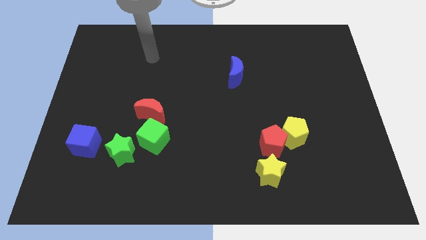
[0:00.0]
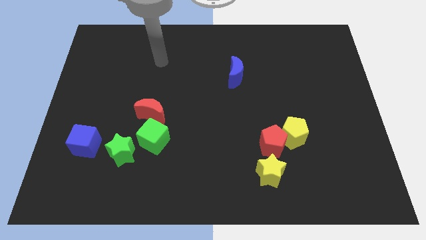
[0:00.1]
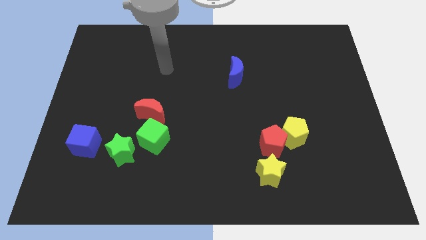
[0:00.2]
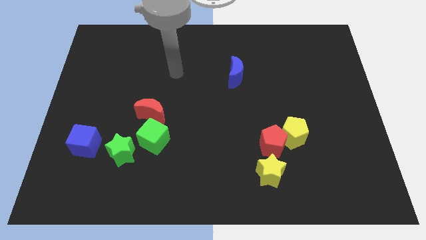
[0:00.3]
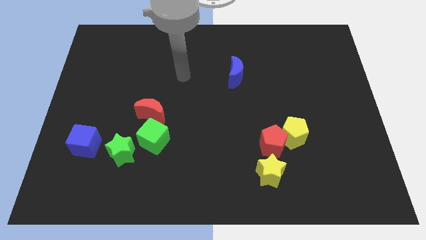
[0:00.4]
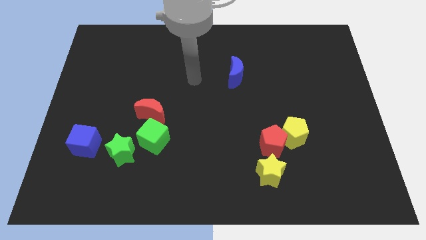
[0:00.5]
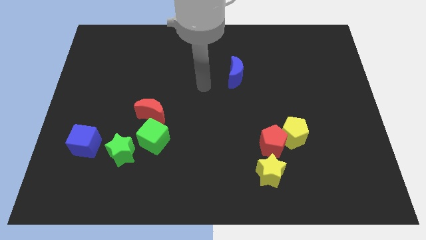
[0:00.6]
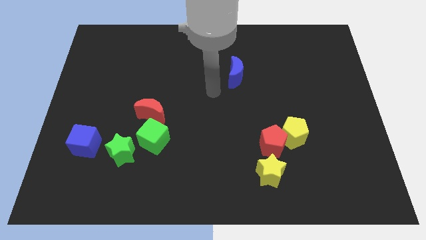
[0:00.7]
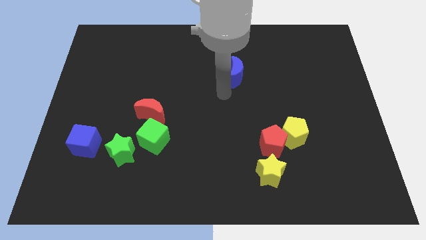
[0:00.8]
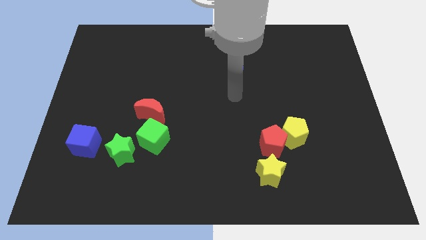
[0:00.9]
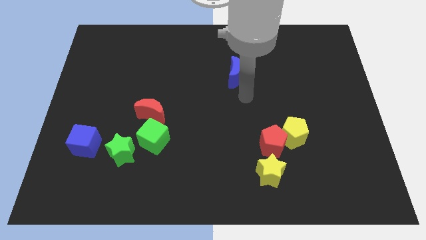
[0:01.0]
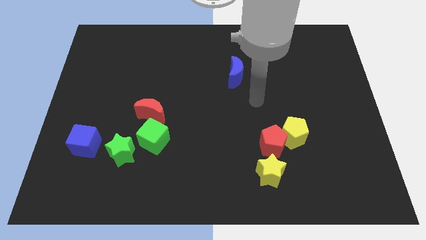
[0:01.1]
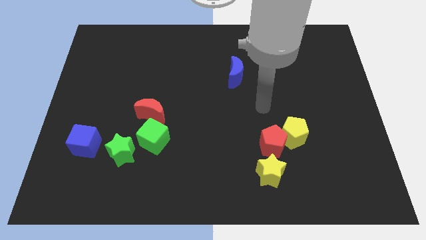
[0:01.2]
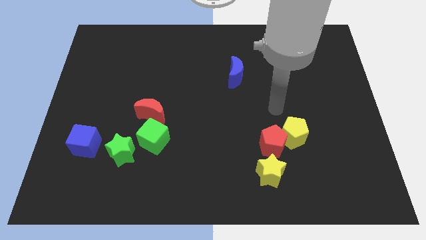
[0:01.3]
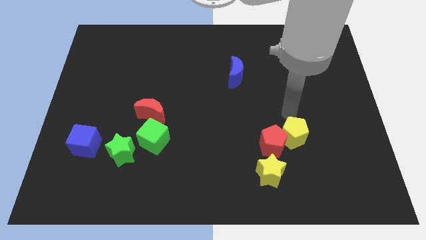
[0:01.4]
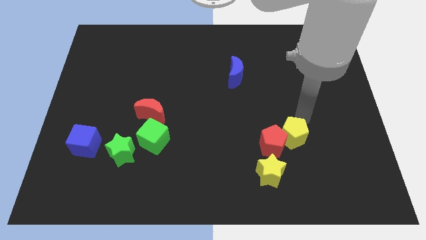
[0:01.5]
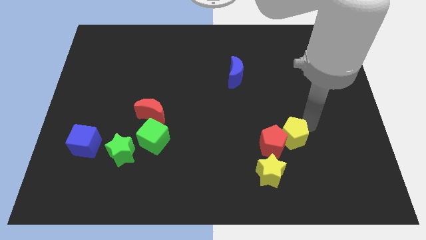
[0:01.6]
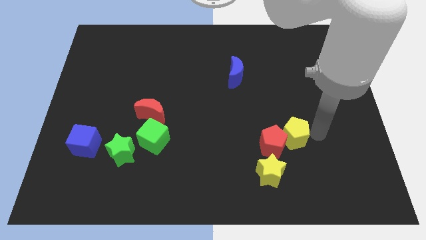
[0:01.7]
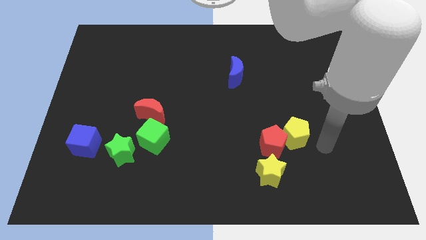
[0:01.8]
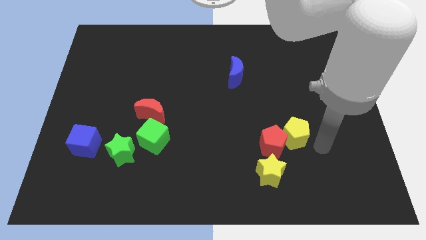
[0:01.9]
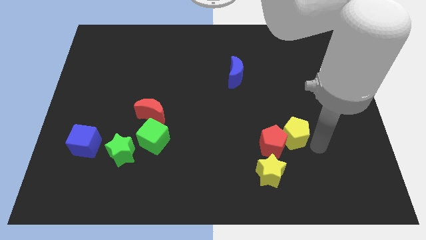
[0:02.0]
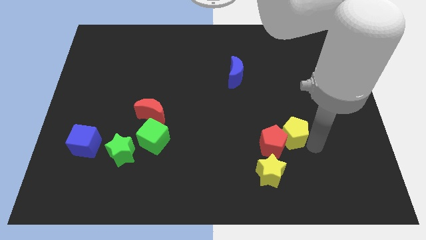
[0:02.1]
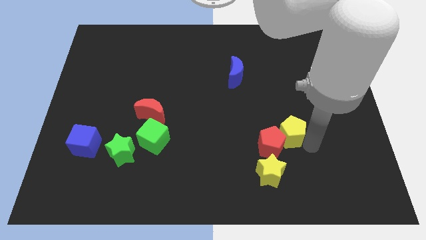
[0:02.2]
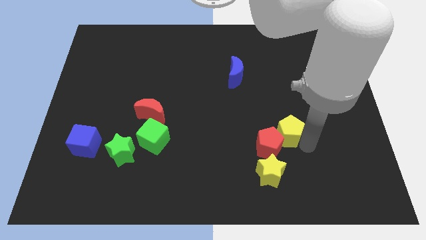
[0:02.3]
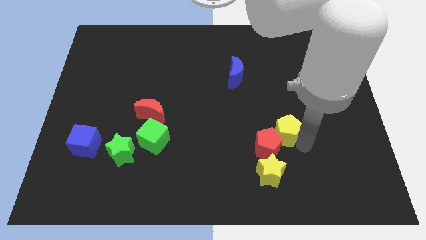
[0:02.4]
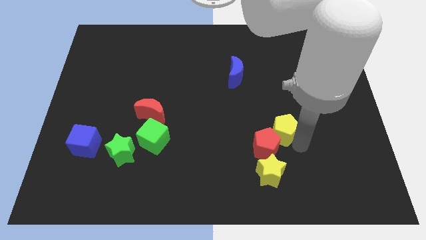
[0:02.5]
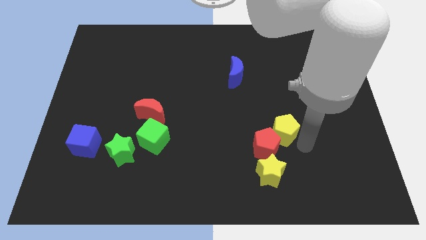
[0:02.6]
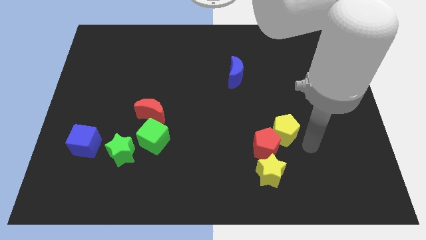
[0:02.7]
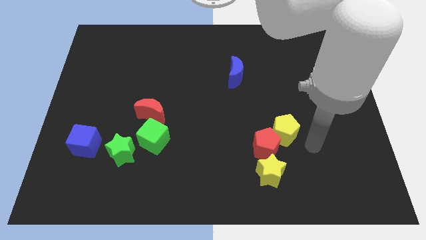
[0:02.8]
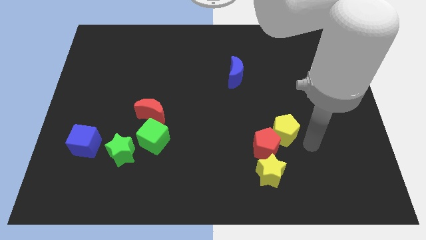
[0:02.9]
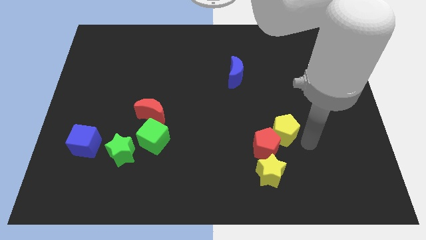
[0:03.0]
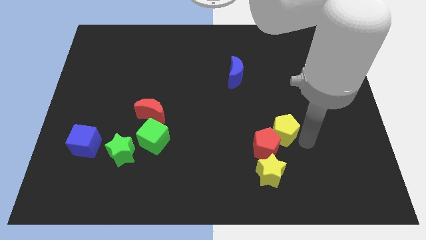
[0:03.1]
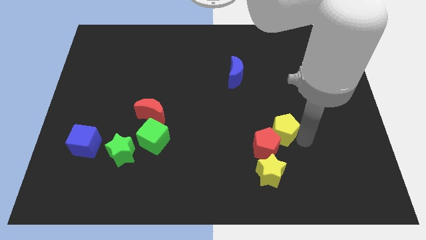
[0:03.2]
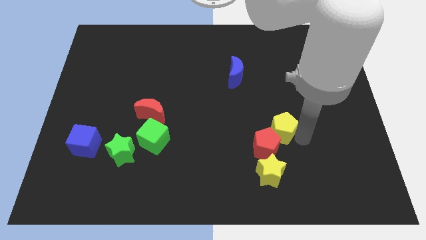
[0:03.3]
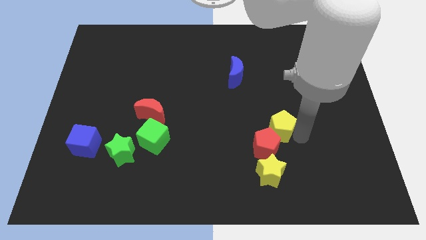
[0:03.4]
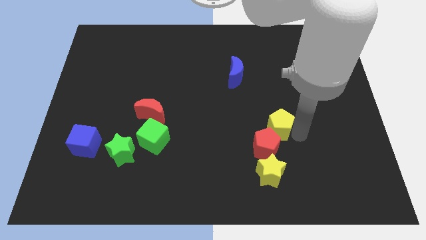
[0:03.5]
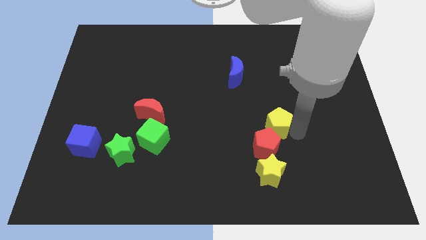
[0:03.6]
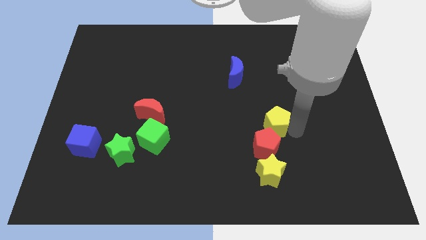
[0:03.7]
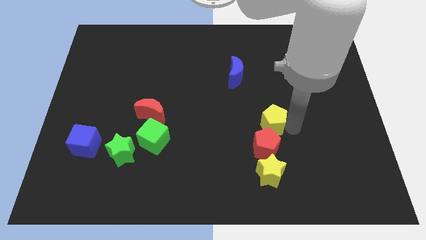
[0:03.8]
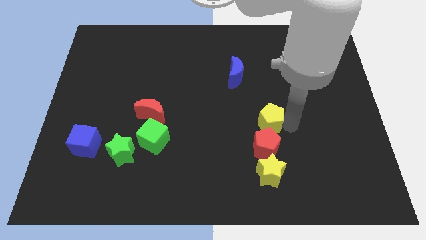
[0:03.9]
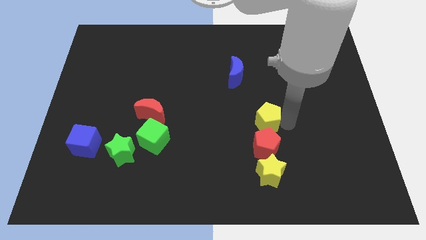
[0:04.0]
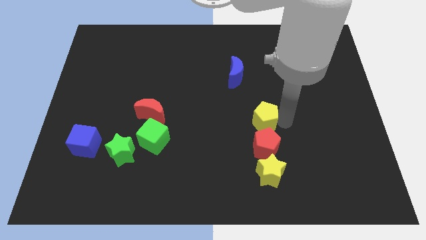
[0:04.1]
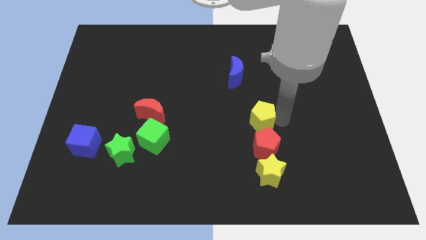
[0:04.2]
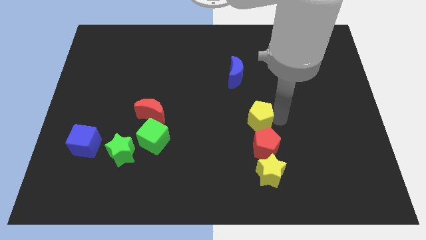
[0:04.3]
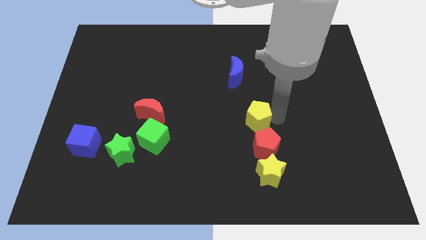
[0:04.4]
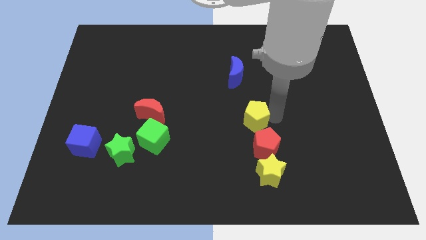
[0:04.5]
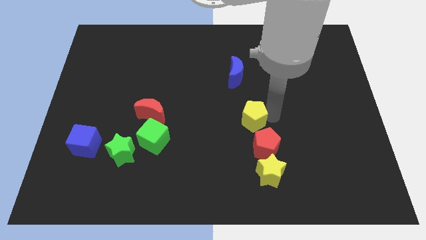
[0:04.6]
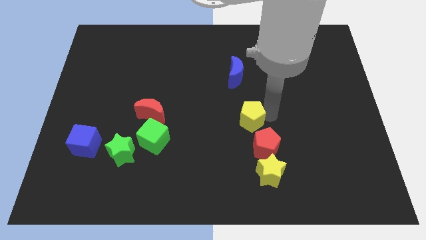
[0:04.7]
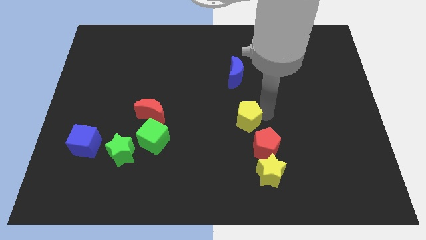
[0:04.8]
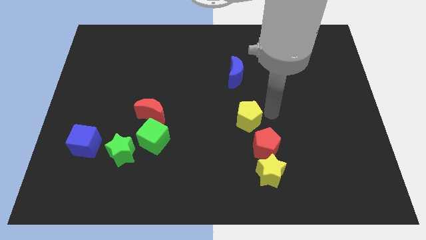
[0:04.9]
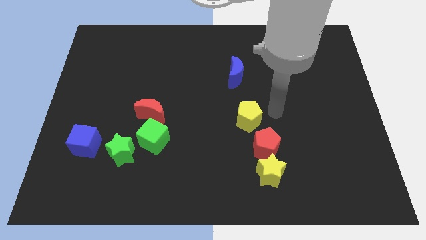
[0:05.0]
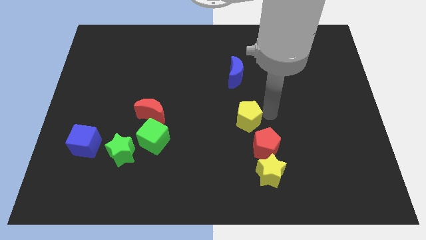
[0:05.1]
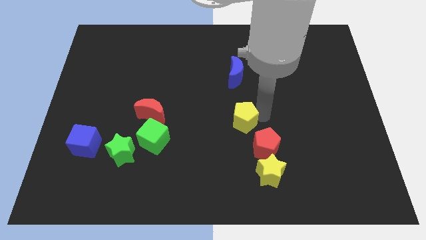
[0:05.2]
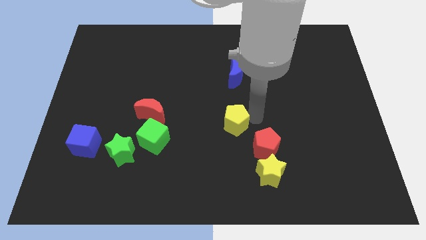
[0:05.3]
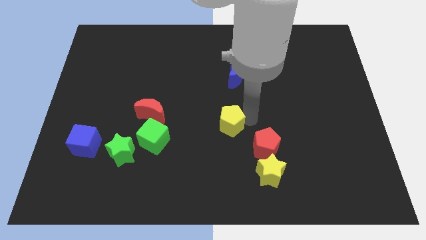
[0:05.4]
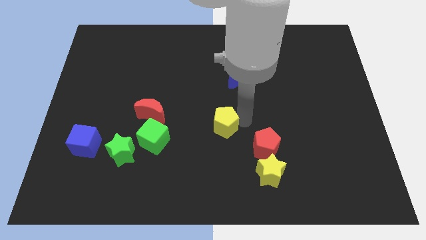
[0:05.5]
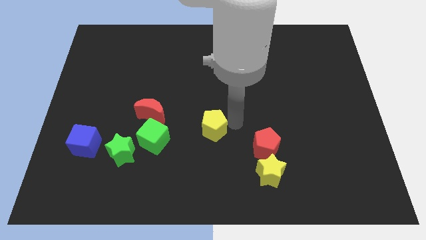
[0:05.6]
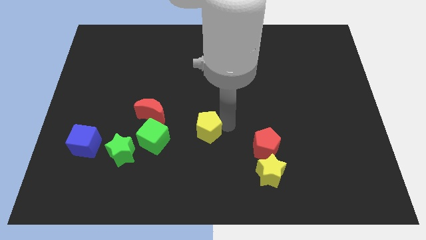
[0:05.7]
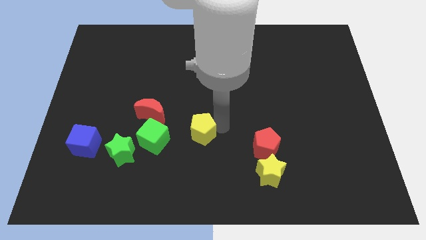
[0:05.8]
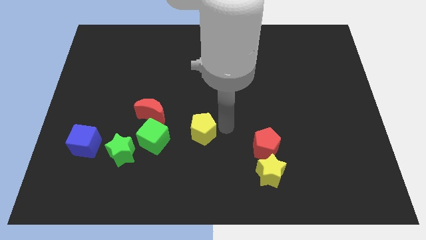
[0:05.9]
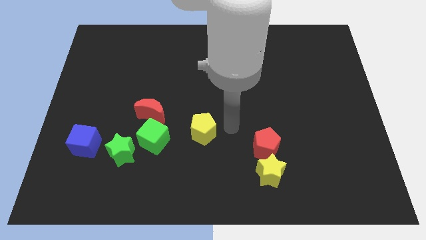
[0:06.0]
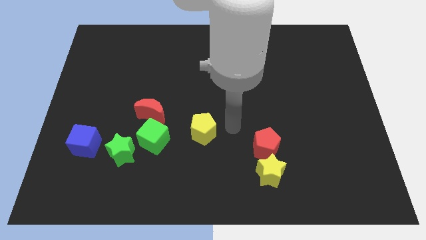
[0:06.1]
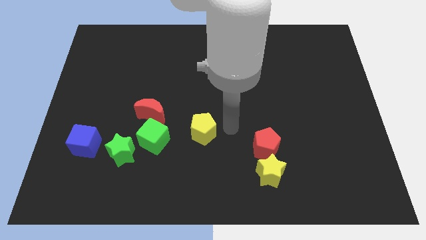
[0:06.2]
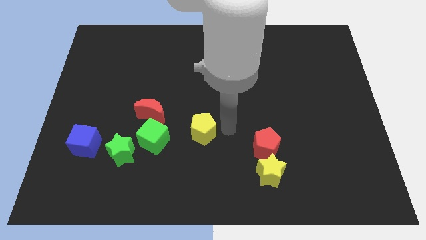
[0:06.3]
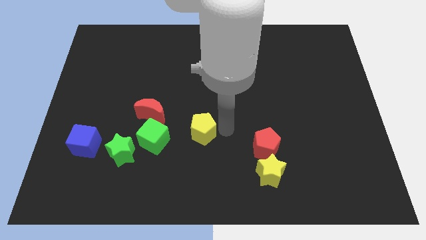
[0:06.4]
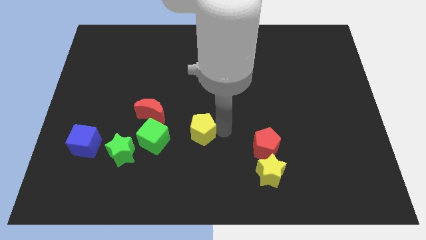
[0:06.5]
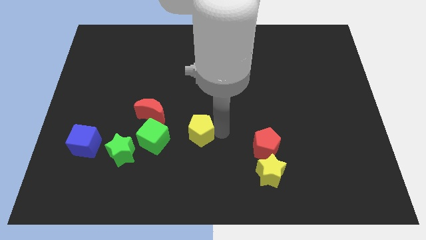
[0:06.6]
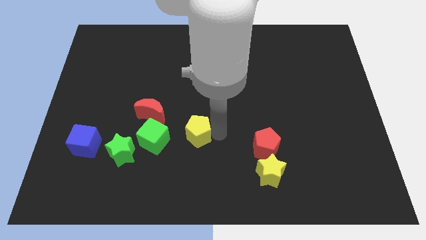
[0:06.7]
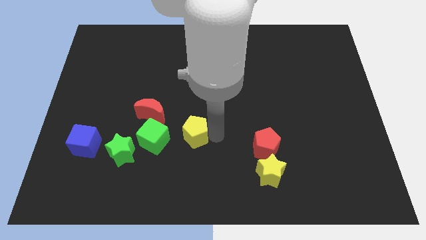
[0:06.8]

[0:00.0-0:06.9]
move the yellow pentagon diagonally down and to the right of the red moon

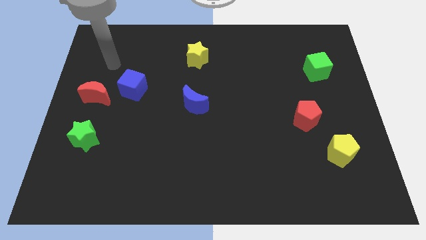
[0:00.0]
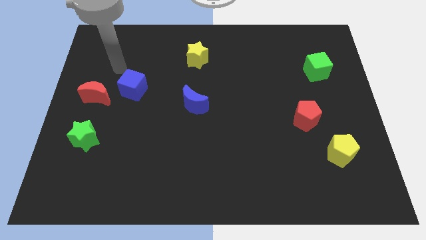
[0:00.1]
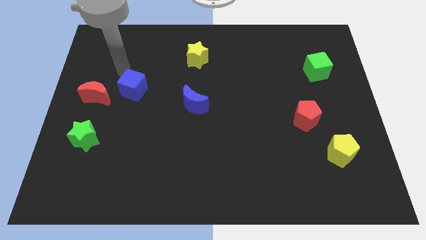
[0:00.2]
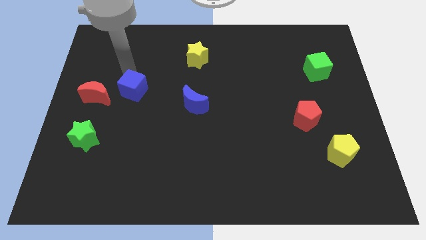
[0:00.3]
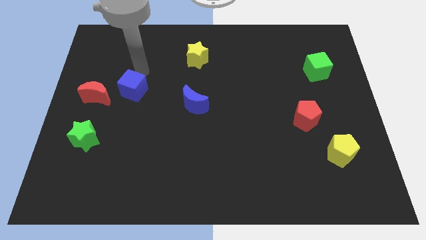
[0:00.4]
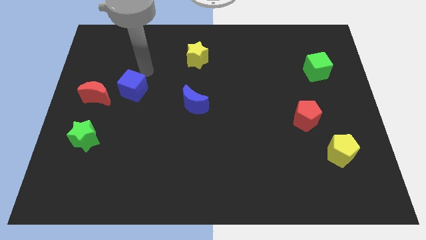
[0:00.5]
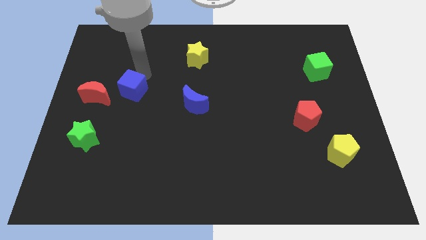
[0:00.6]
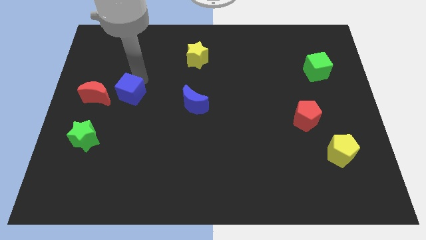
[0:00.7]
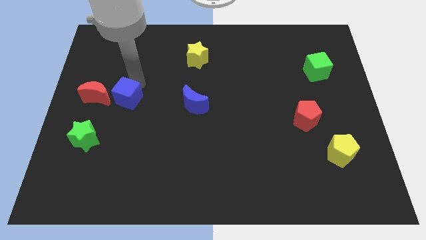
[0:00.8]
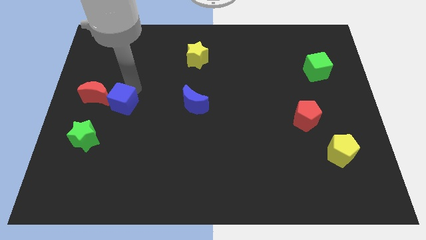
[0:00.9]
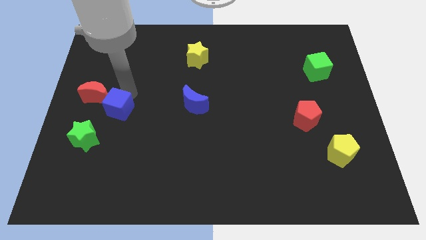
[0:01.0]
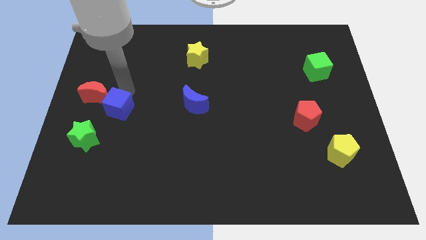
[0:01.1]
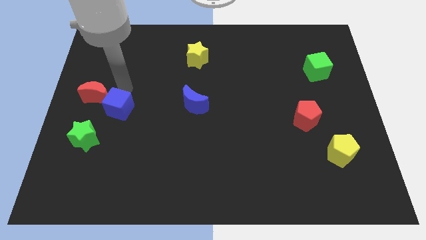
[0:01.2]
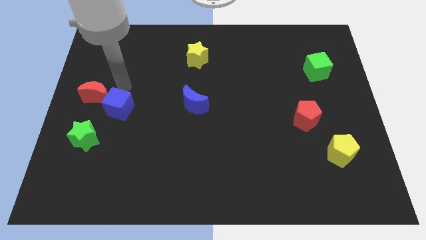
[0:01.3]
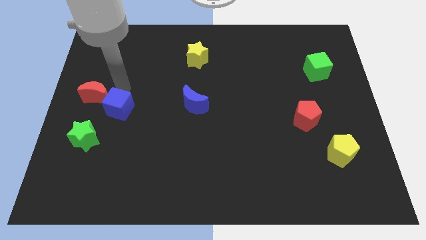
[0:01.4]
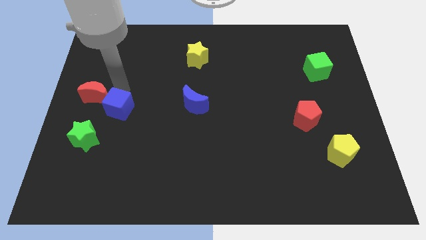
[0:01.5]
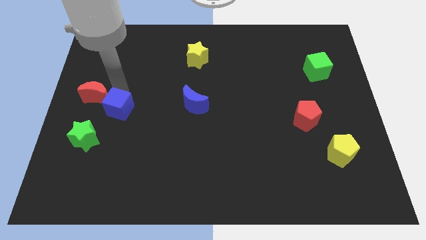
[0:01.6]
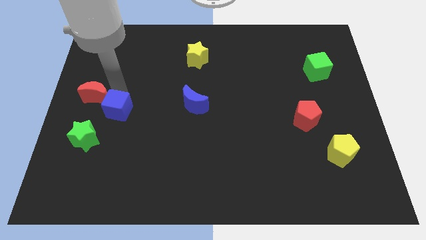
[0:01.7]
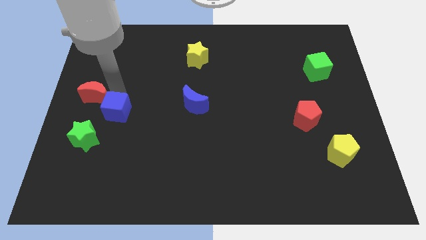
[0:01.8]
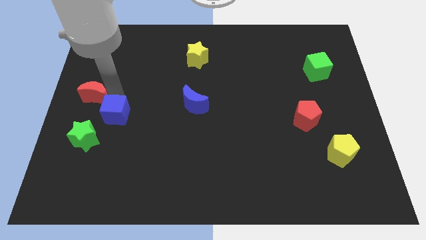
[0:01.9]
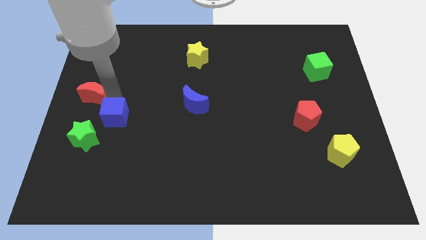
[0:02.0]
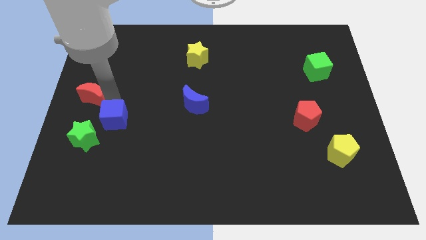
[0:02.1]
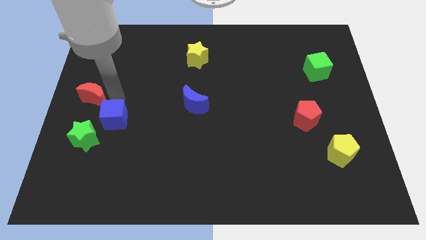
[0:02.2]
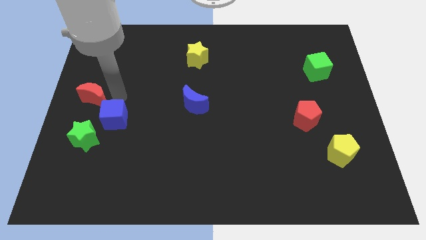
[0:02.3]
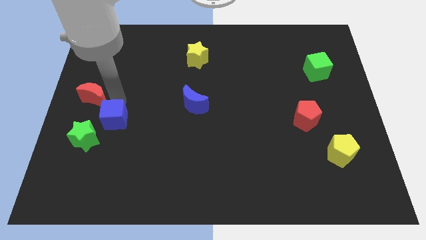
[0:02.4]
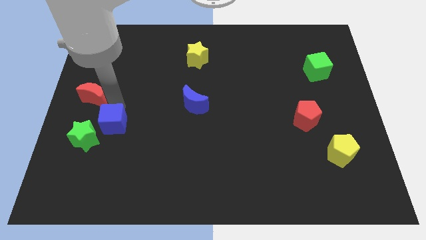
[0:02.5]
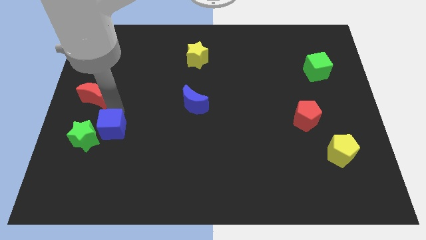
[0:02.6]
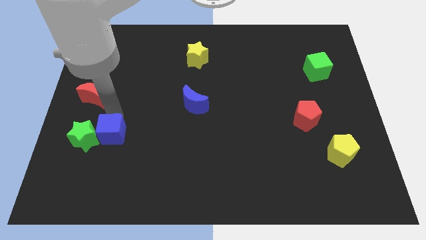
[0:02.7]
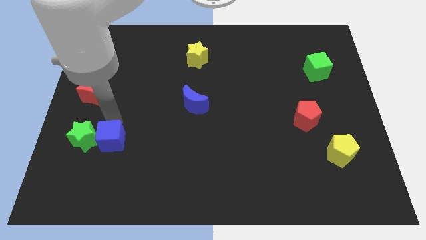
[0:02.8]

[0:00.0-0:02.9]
move the blue cube to the bottom right of the green star
